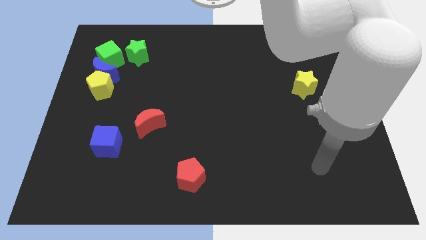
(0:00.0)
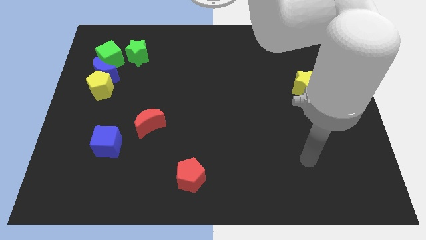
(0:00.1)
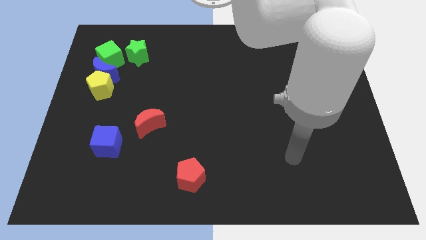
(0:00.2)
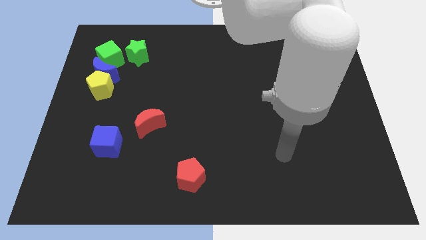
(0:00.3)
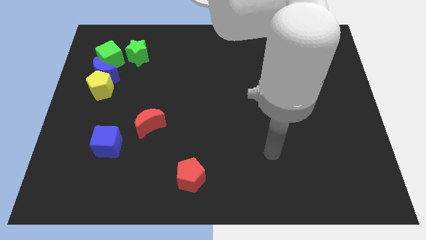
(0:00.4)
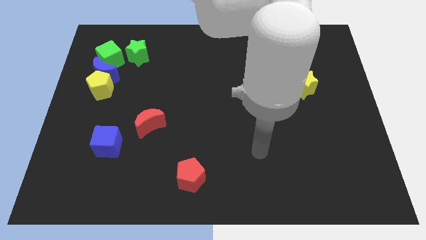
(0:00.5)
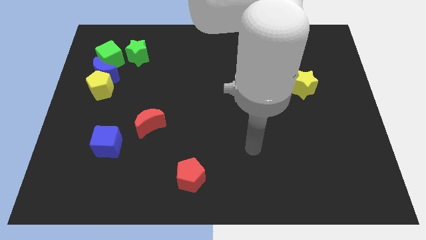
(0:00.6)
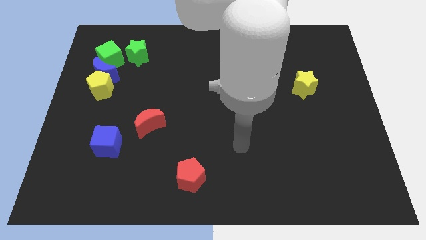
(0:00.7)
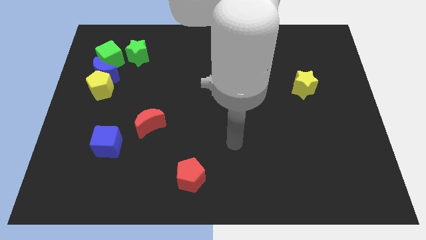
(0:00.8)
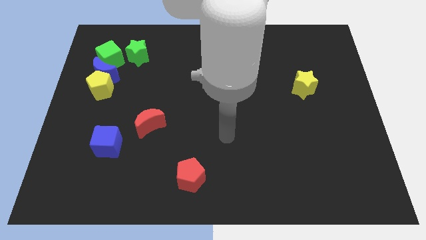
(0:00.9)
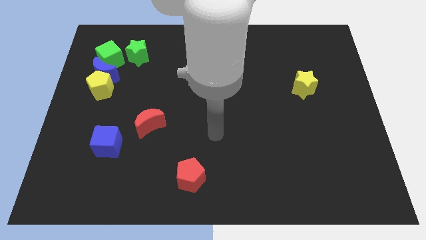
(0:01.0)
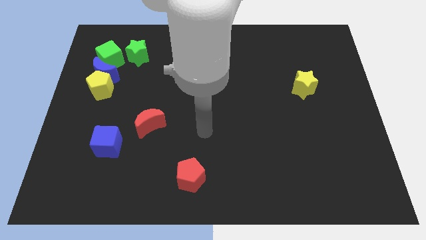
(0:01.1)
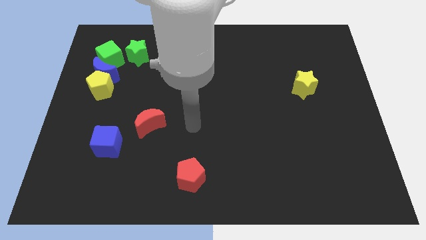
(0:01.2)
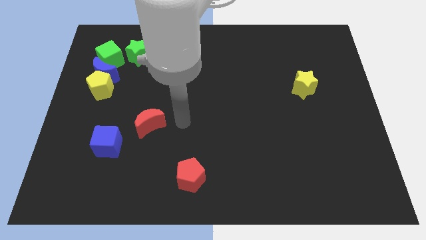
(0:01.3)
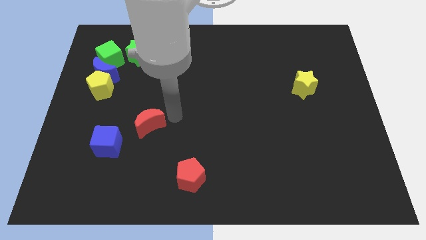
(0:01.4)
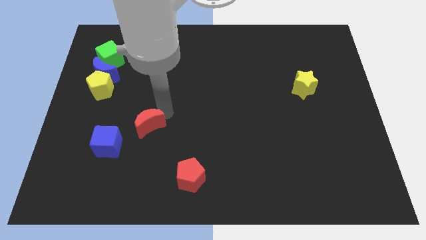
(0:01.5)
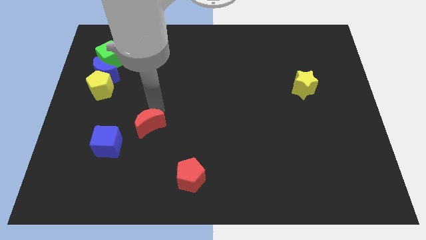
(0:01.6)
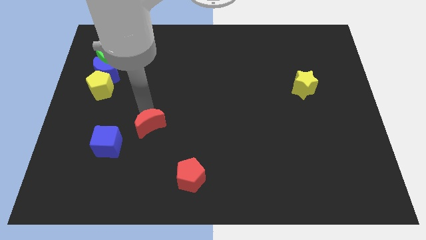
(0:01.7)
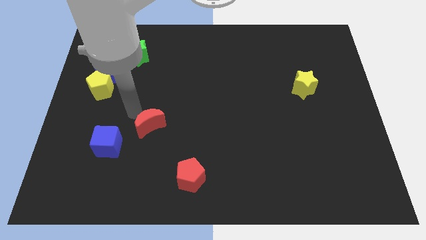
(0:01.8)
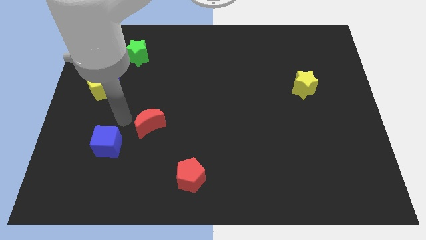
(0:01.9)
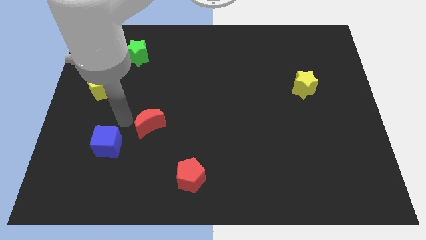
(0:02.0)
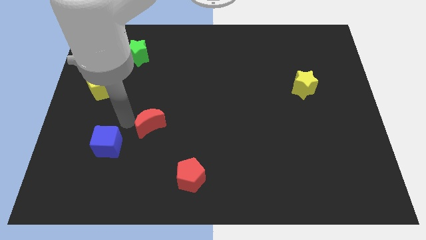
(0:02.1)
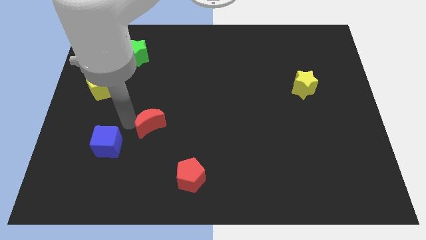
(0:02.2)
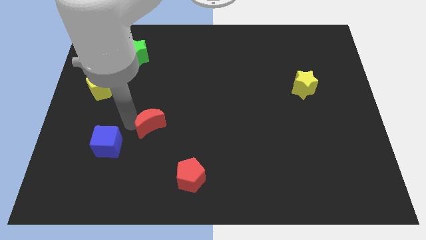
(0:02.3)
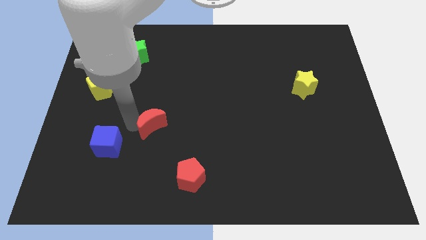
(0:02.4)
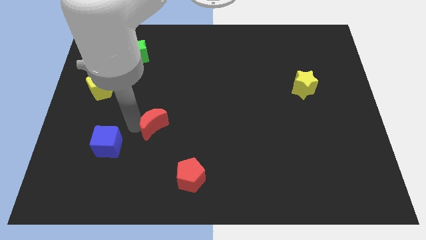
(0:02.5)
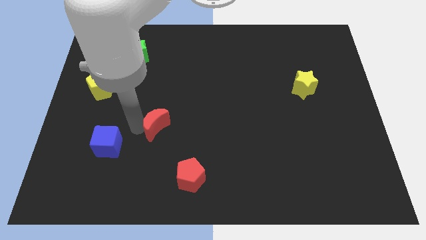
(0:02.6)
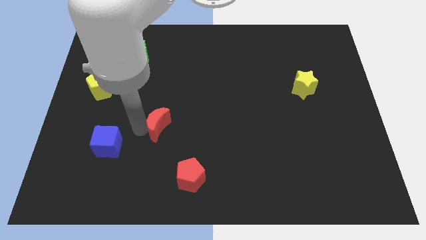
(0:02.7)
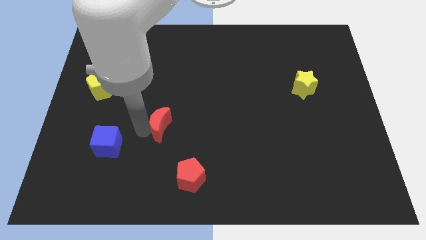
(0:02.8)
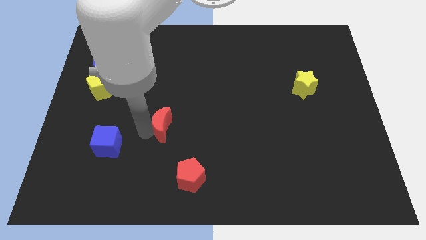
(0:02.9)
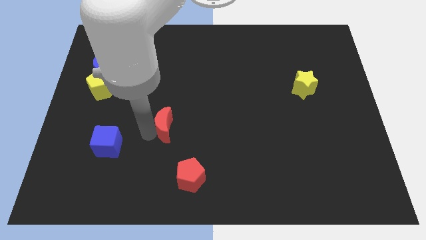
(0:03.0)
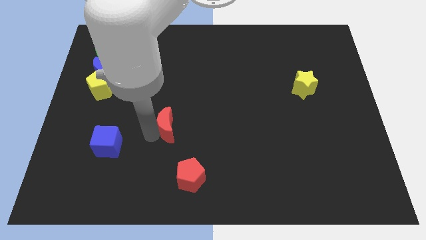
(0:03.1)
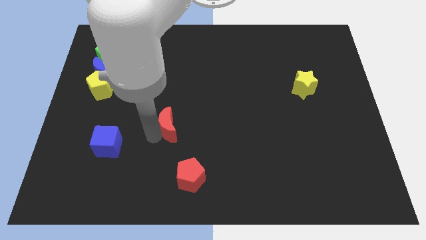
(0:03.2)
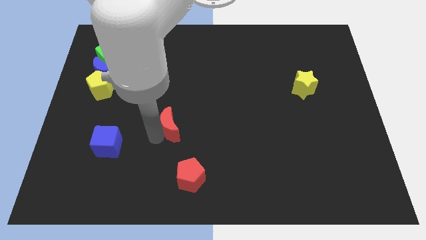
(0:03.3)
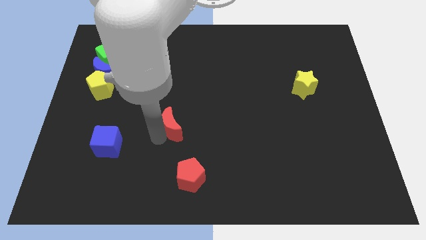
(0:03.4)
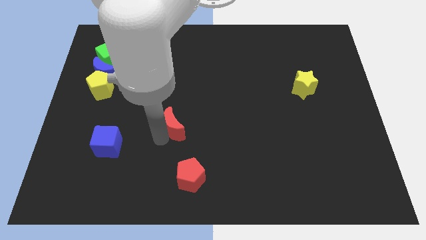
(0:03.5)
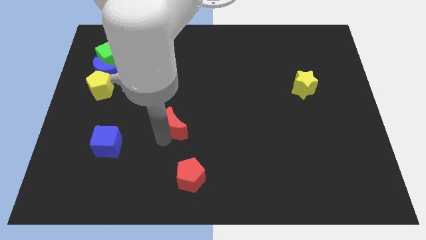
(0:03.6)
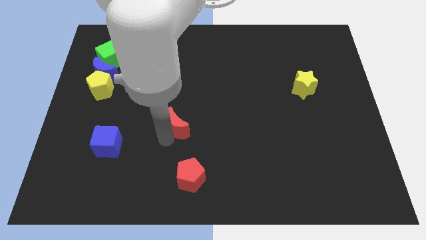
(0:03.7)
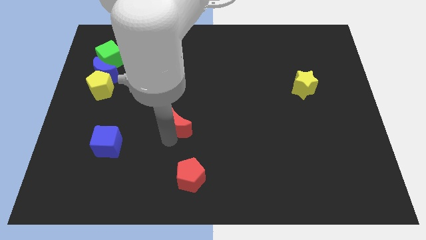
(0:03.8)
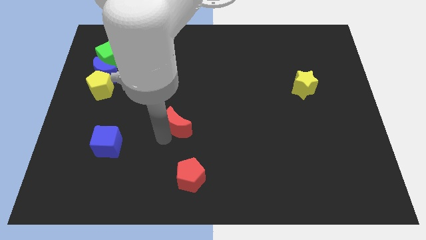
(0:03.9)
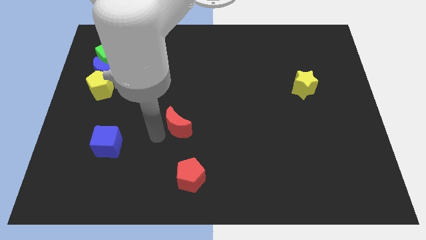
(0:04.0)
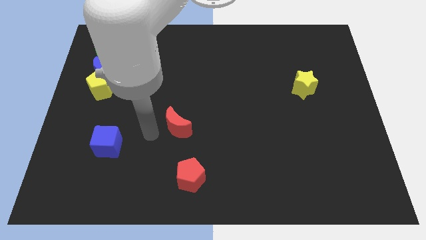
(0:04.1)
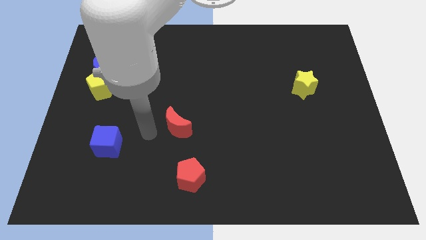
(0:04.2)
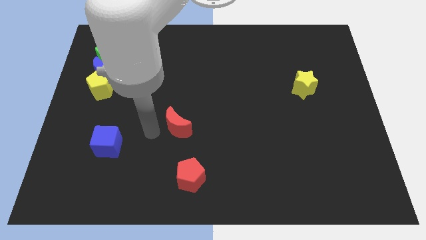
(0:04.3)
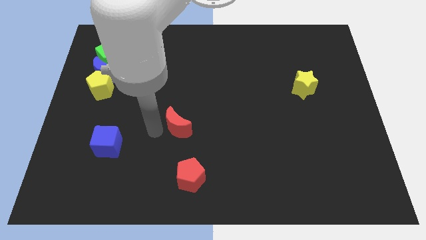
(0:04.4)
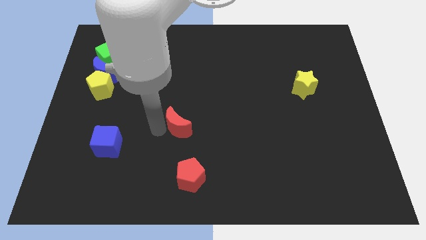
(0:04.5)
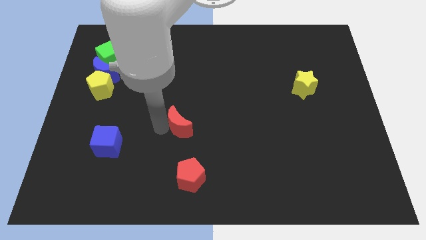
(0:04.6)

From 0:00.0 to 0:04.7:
push the red moon a bit to the right

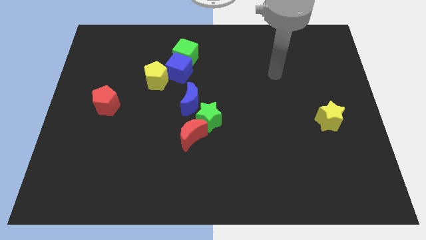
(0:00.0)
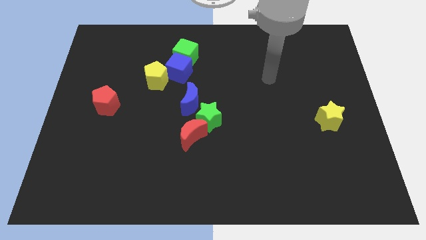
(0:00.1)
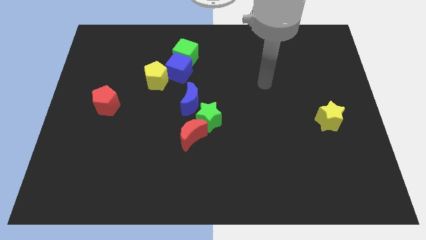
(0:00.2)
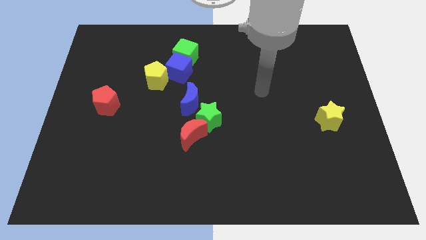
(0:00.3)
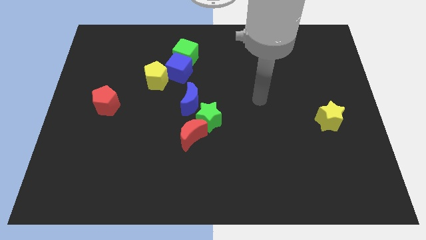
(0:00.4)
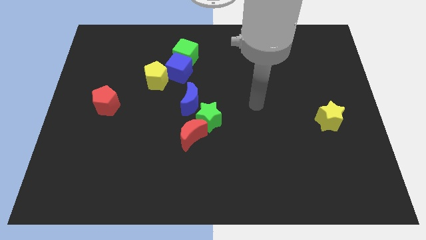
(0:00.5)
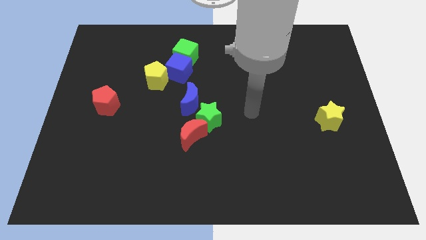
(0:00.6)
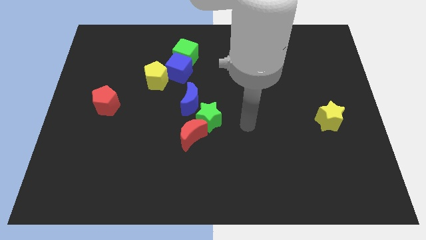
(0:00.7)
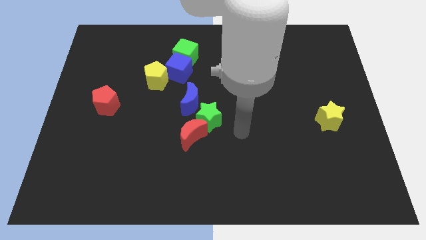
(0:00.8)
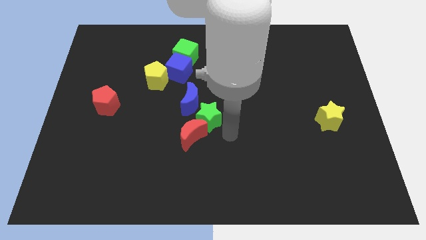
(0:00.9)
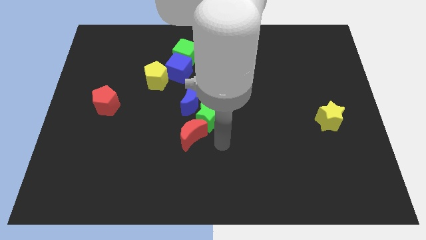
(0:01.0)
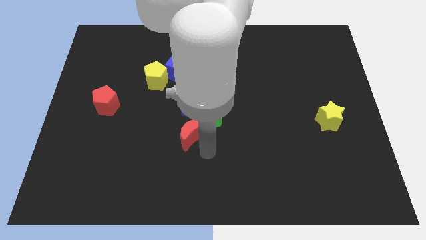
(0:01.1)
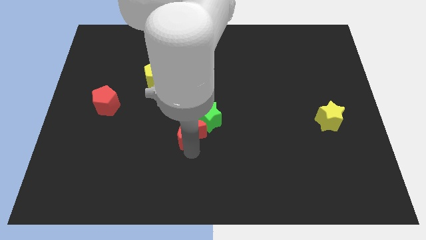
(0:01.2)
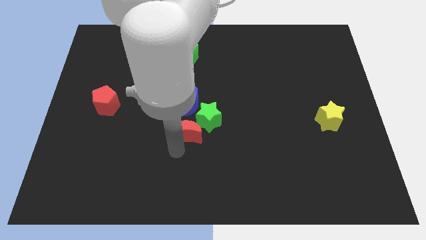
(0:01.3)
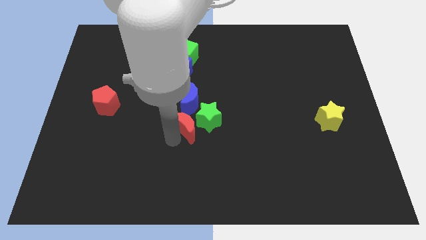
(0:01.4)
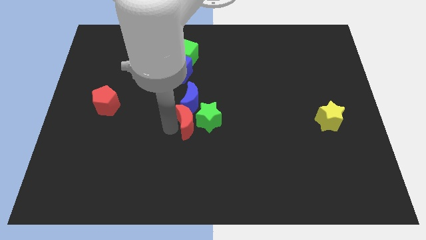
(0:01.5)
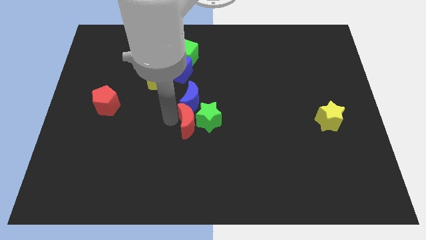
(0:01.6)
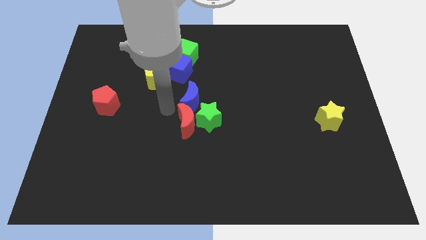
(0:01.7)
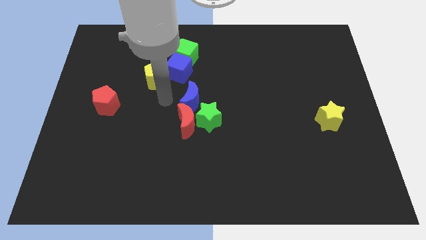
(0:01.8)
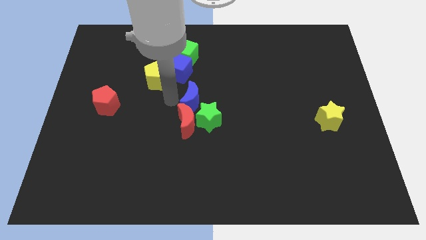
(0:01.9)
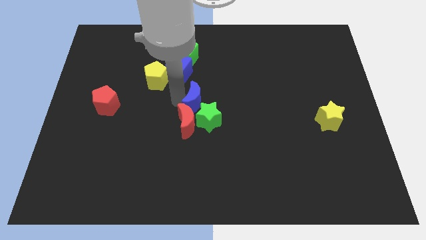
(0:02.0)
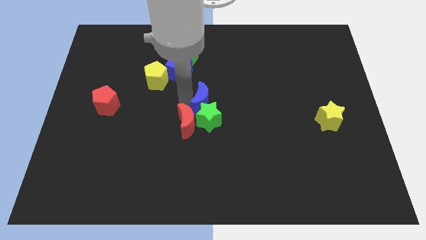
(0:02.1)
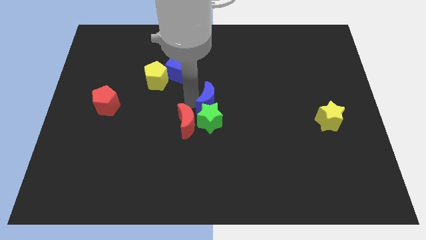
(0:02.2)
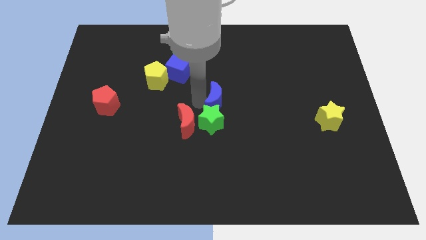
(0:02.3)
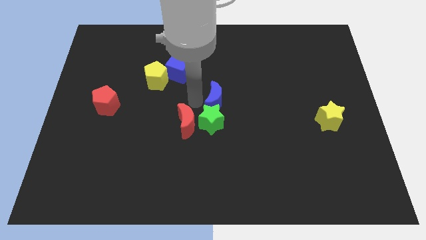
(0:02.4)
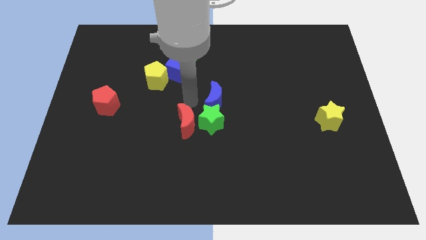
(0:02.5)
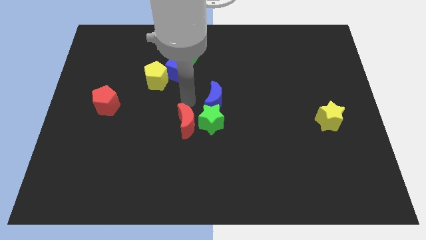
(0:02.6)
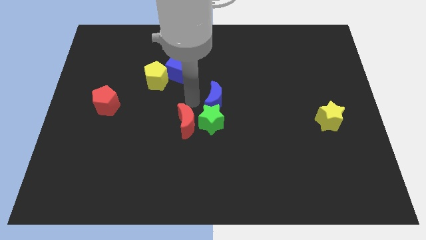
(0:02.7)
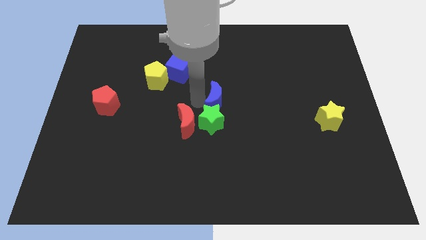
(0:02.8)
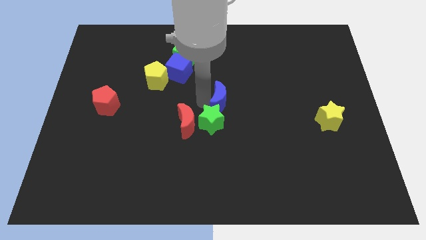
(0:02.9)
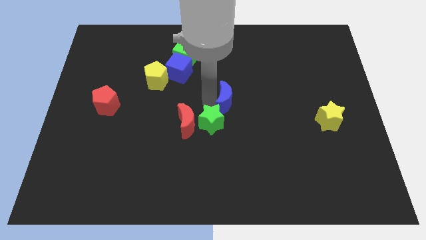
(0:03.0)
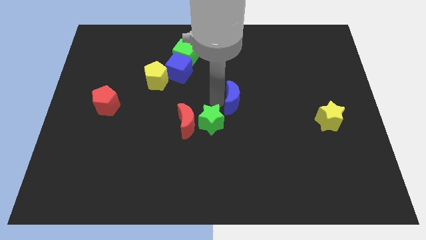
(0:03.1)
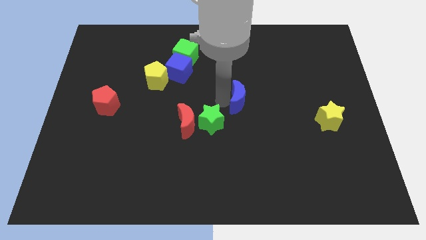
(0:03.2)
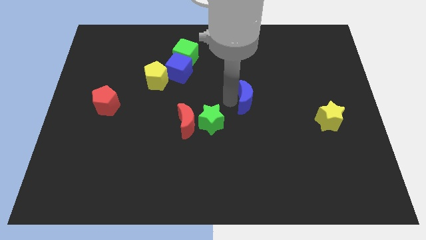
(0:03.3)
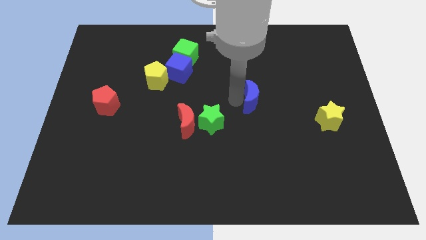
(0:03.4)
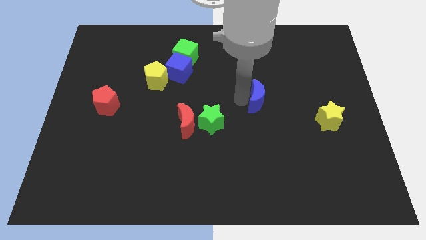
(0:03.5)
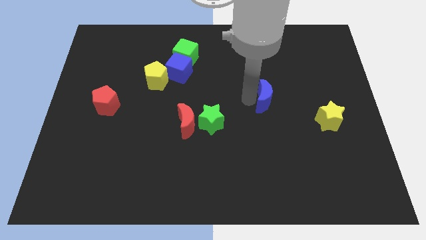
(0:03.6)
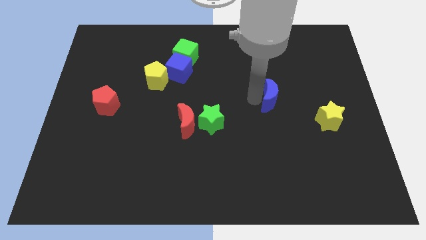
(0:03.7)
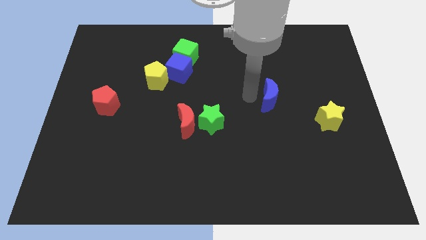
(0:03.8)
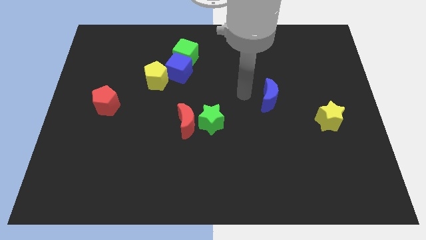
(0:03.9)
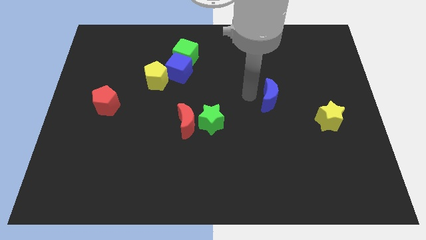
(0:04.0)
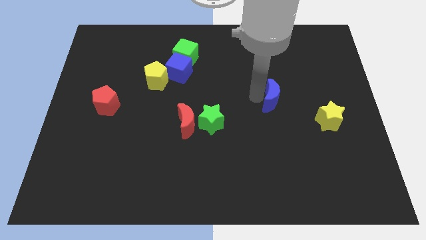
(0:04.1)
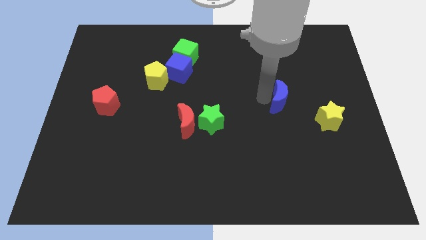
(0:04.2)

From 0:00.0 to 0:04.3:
slide the blue moon right
